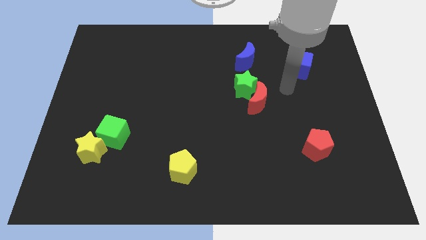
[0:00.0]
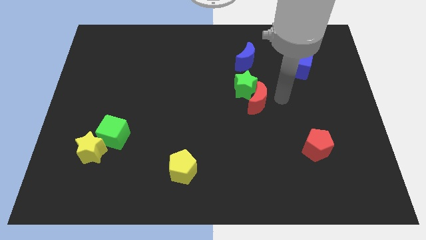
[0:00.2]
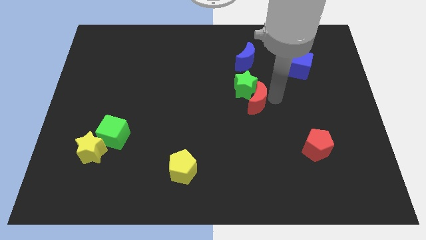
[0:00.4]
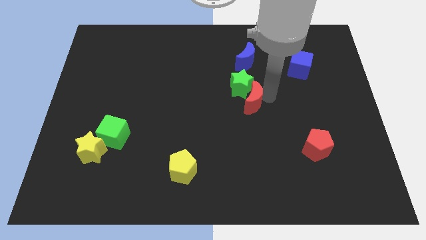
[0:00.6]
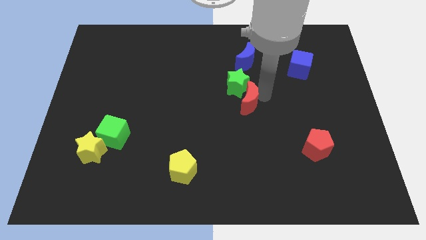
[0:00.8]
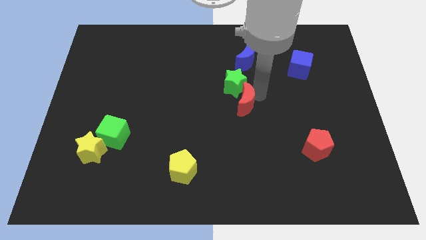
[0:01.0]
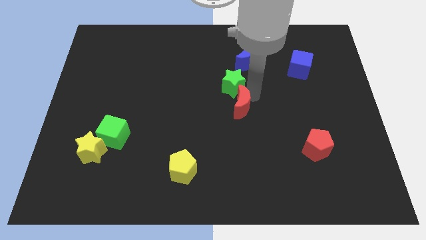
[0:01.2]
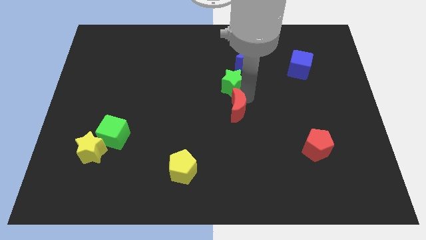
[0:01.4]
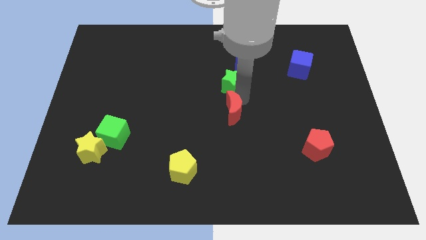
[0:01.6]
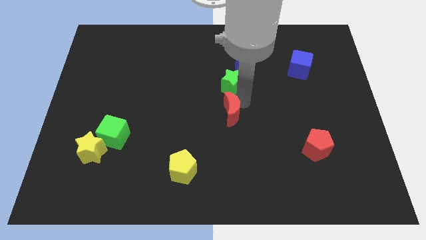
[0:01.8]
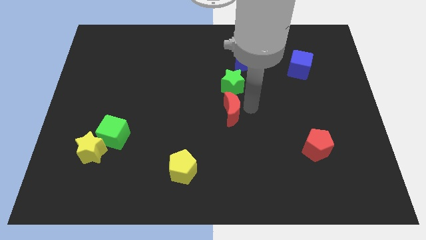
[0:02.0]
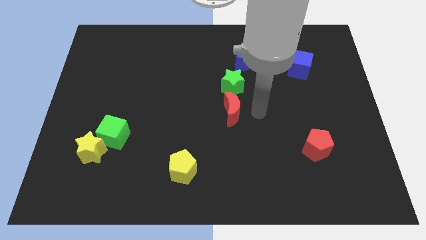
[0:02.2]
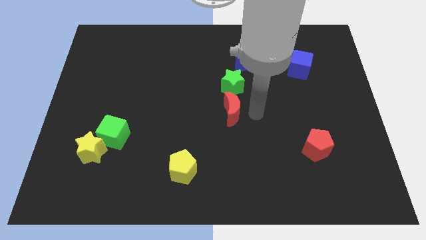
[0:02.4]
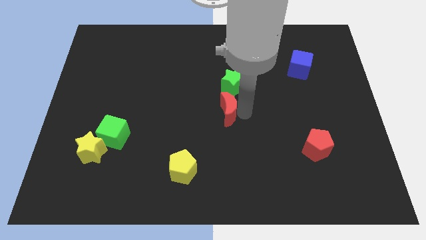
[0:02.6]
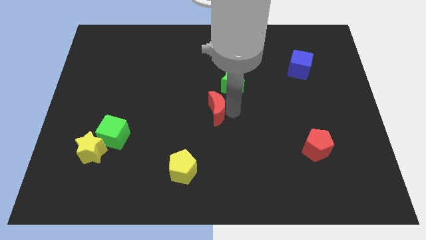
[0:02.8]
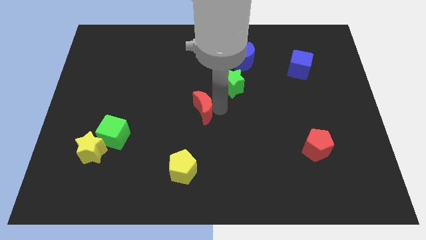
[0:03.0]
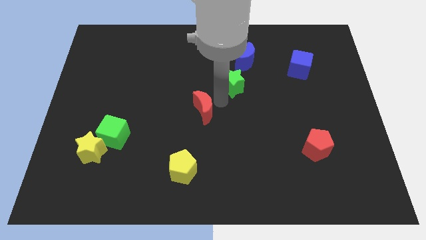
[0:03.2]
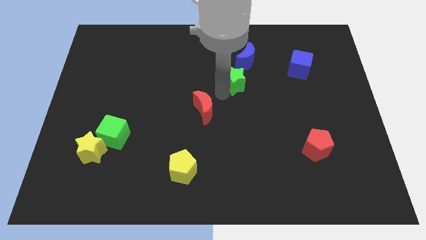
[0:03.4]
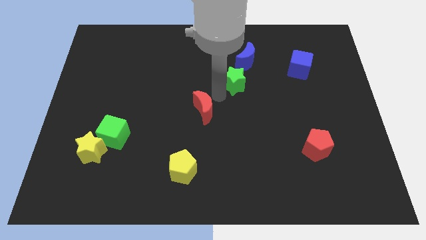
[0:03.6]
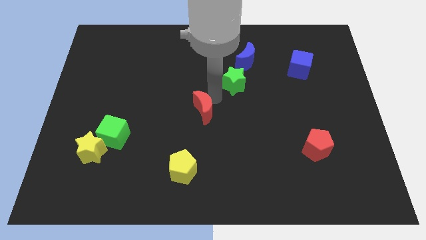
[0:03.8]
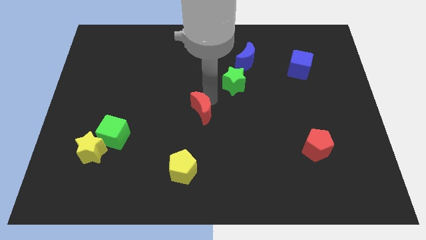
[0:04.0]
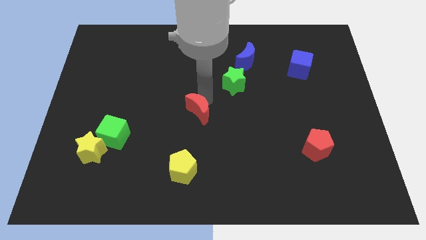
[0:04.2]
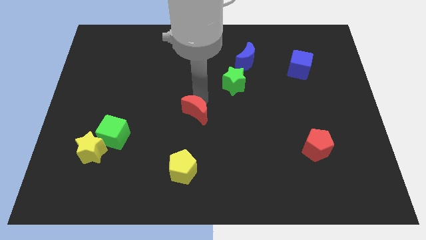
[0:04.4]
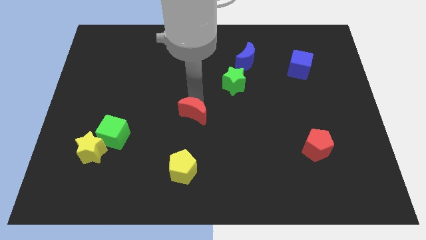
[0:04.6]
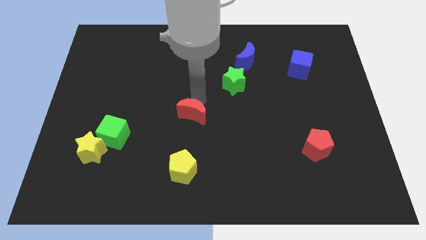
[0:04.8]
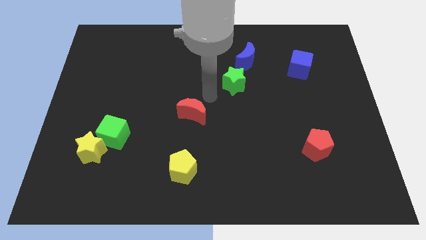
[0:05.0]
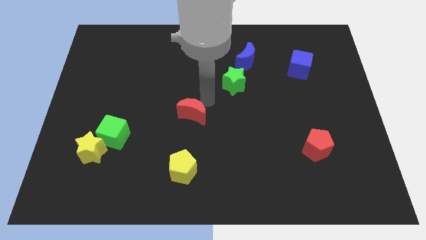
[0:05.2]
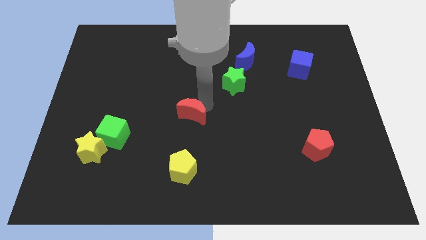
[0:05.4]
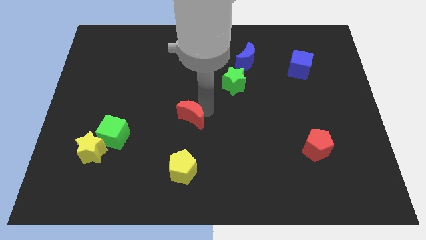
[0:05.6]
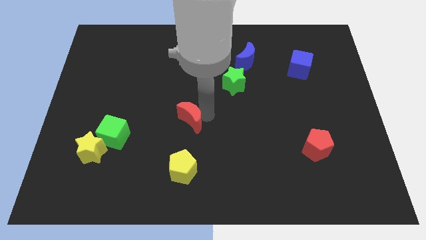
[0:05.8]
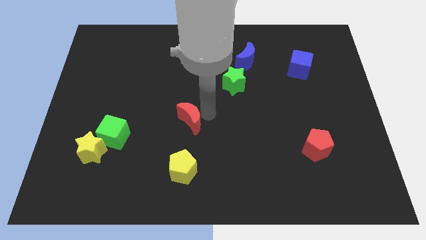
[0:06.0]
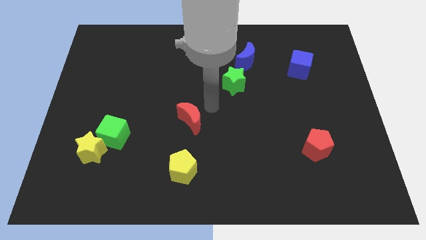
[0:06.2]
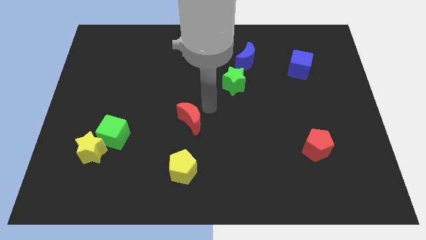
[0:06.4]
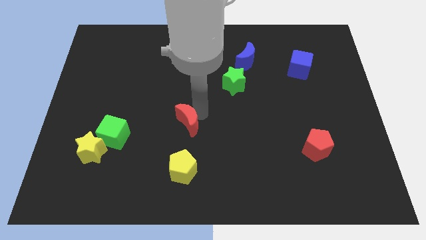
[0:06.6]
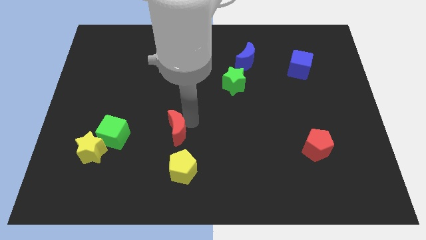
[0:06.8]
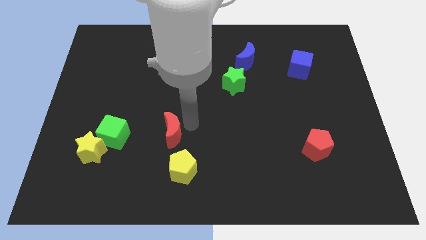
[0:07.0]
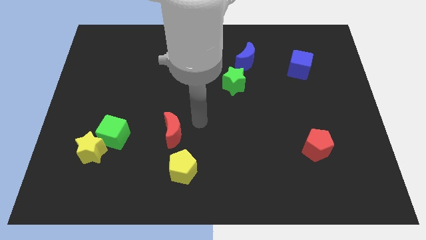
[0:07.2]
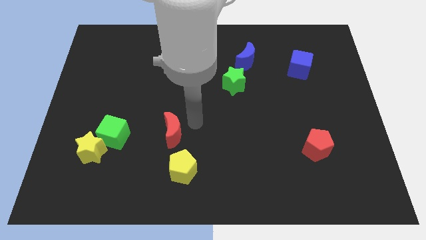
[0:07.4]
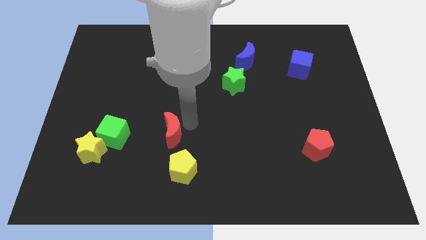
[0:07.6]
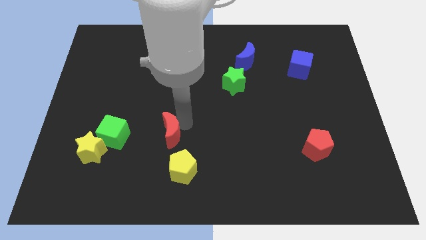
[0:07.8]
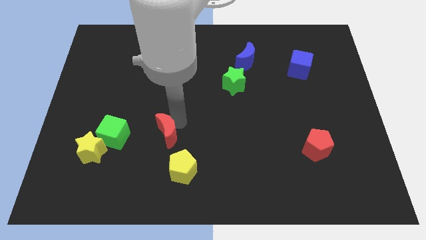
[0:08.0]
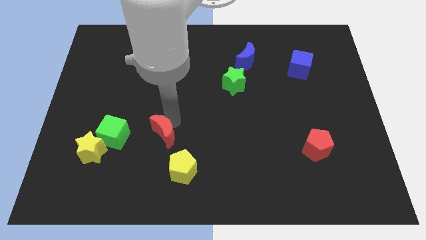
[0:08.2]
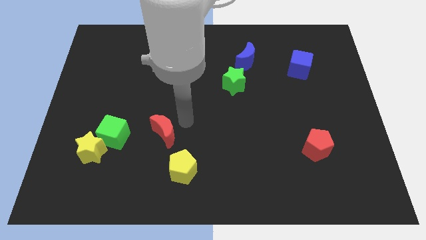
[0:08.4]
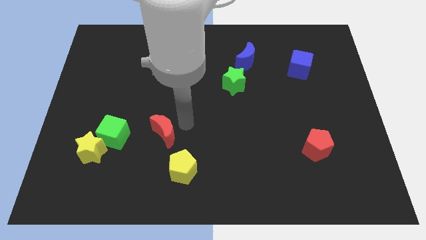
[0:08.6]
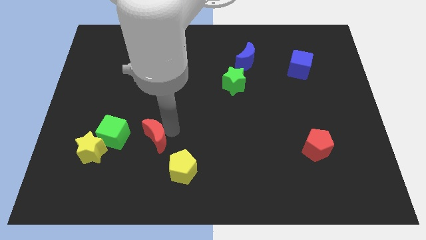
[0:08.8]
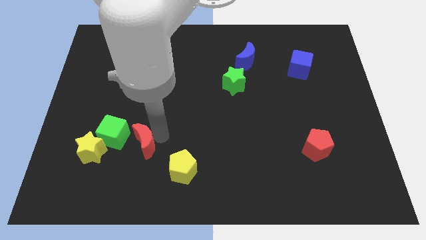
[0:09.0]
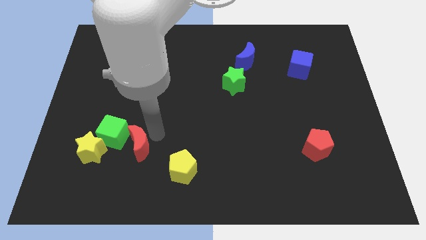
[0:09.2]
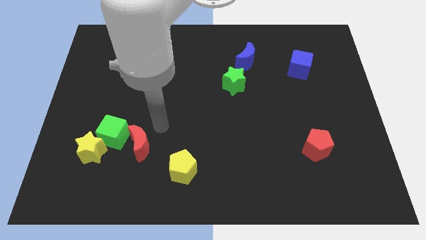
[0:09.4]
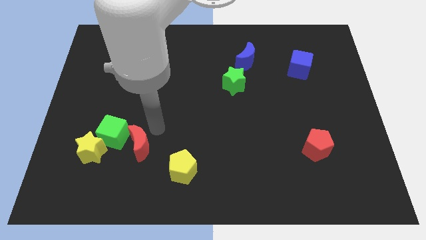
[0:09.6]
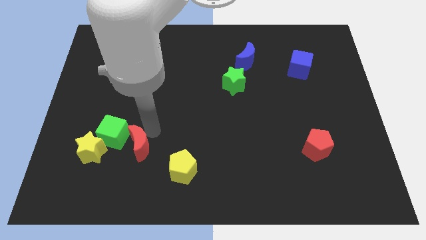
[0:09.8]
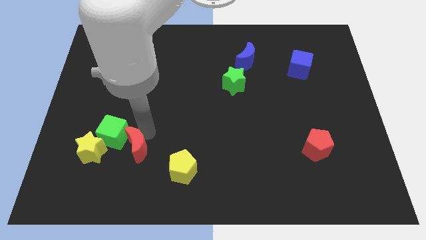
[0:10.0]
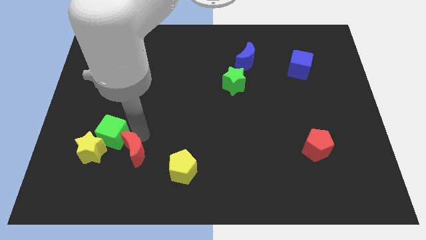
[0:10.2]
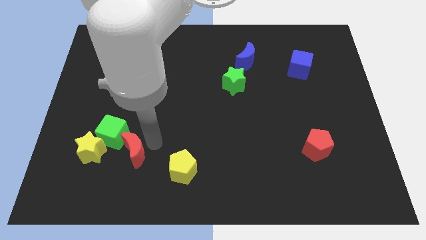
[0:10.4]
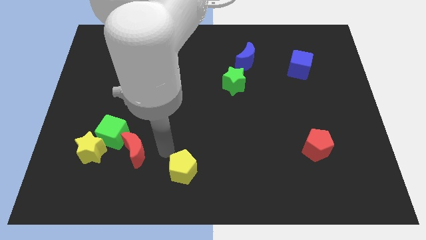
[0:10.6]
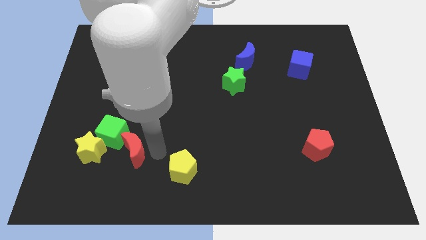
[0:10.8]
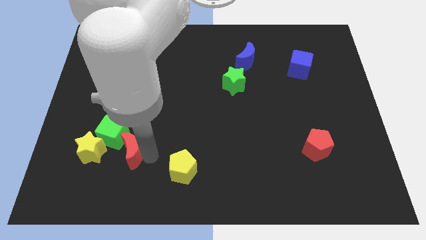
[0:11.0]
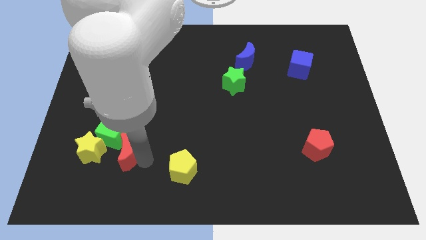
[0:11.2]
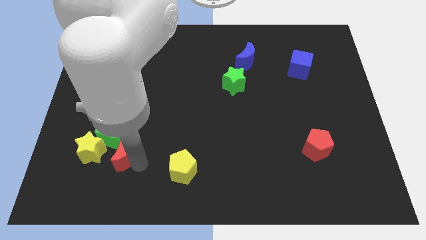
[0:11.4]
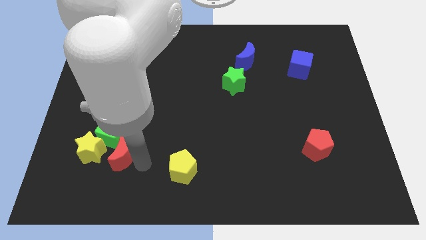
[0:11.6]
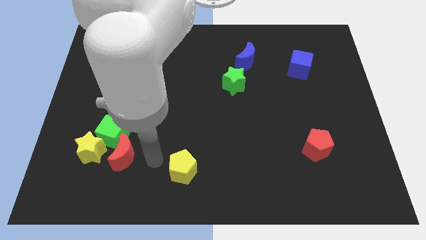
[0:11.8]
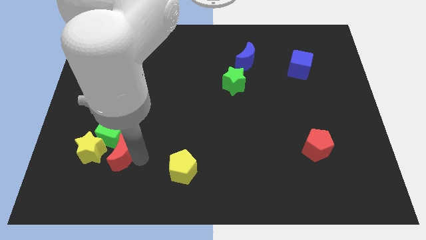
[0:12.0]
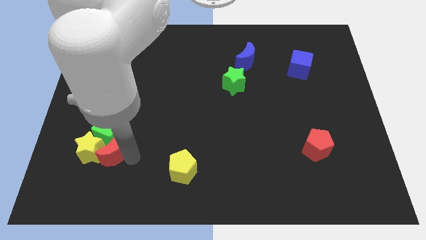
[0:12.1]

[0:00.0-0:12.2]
move the red moon to the yellow star

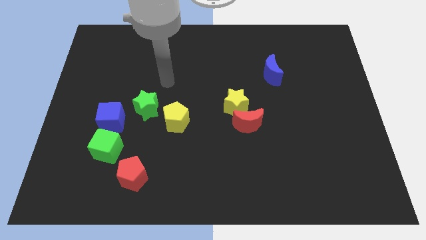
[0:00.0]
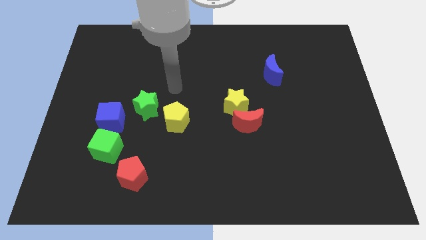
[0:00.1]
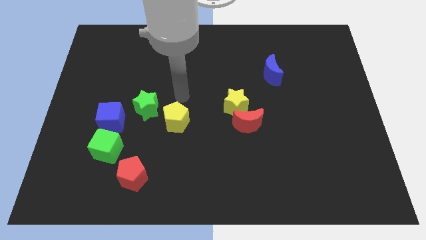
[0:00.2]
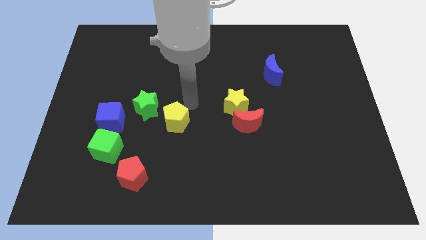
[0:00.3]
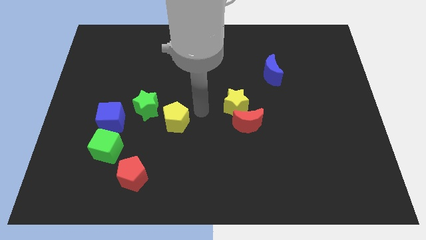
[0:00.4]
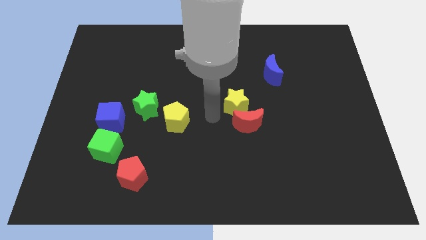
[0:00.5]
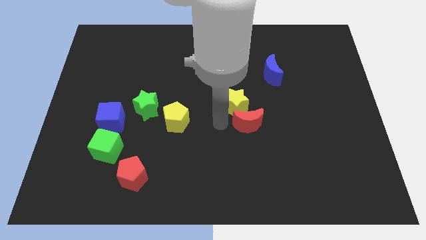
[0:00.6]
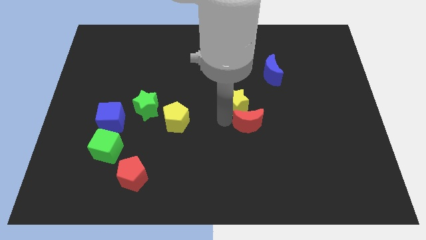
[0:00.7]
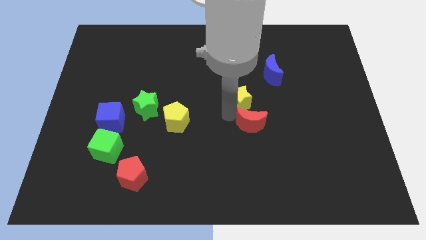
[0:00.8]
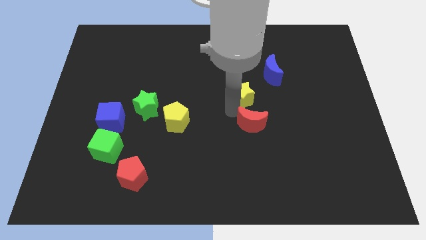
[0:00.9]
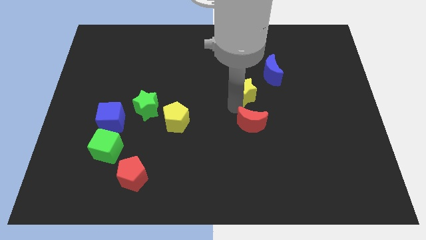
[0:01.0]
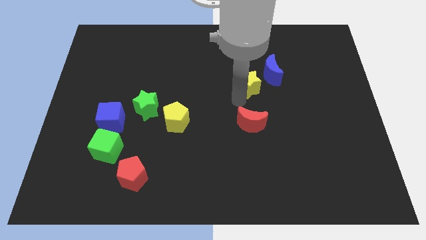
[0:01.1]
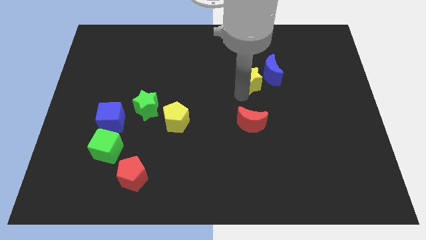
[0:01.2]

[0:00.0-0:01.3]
push the yellow star towards the blue moon
